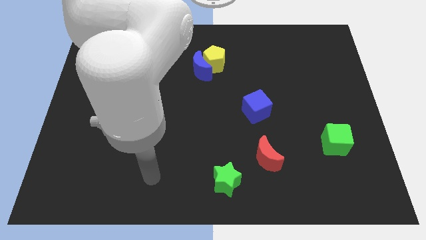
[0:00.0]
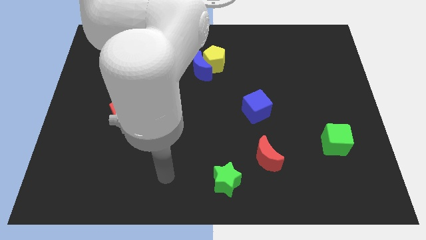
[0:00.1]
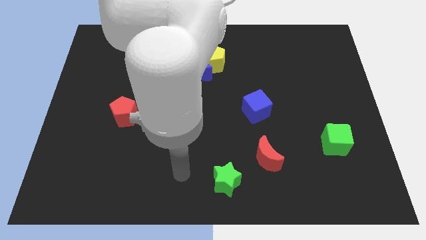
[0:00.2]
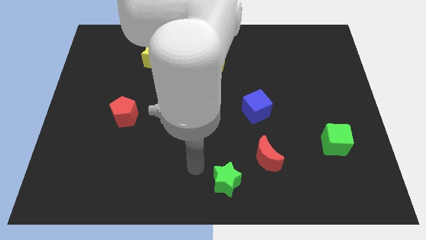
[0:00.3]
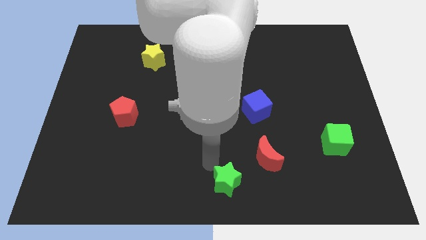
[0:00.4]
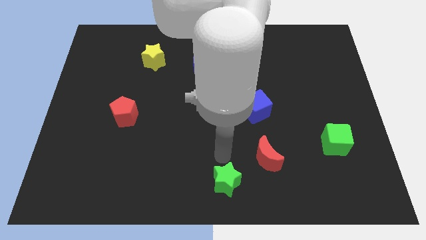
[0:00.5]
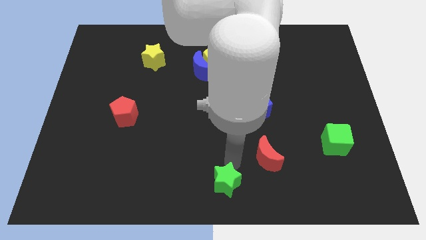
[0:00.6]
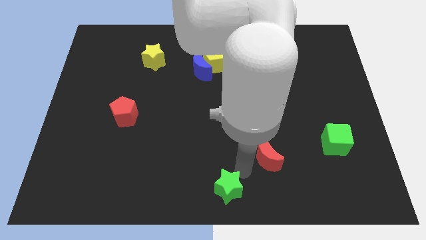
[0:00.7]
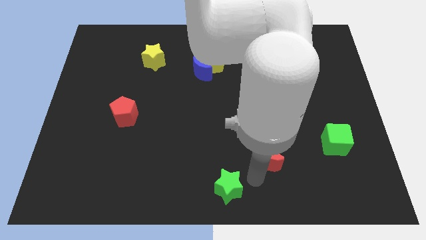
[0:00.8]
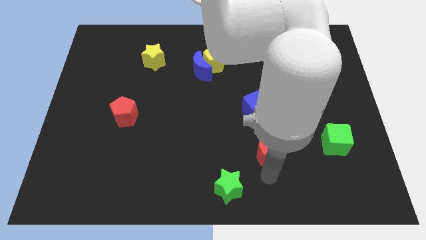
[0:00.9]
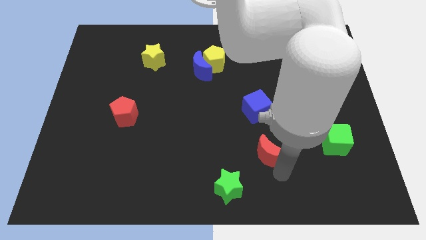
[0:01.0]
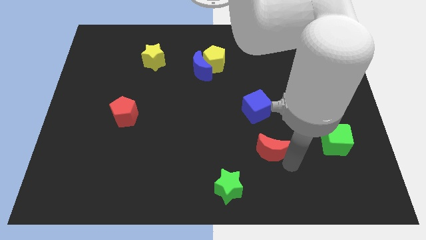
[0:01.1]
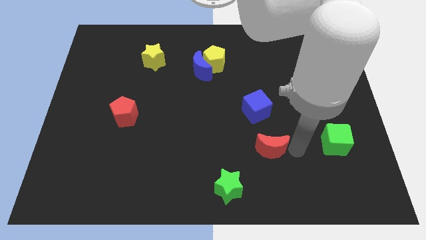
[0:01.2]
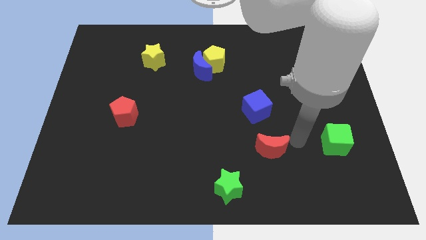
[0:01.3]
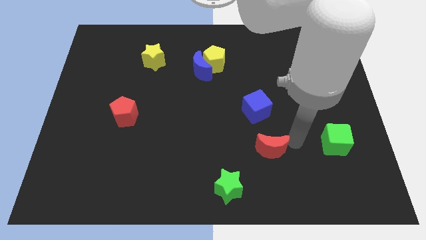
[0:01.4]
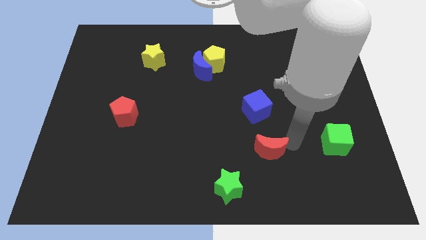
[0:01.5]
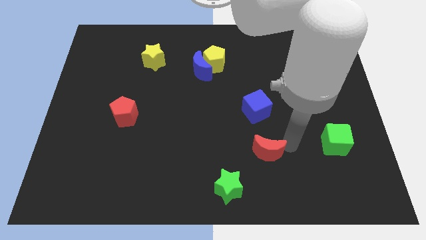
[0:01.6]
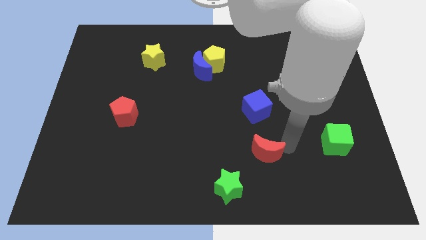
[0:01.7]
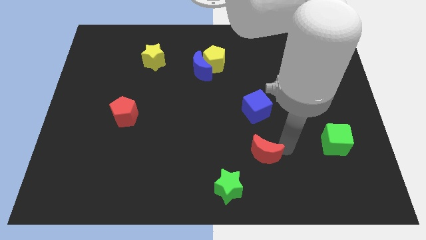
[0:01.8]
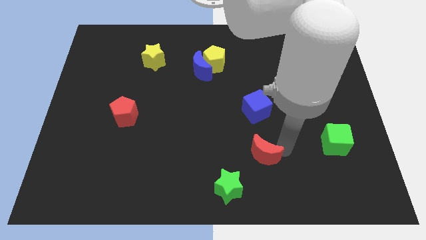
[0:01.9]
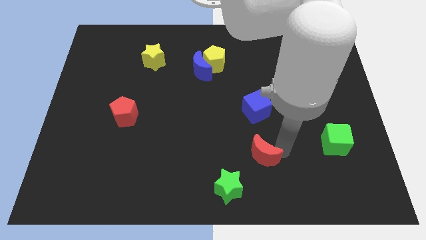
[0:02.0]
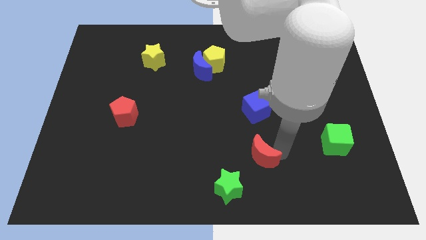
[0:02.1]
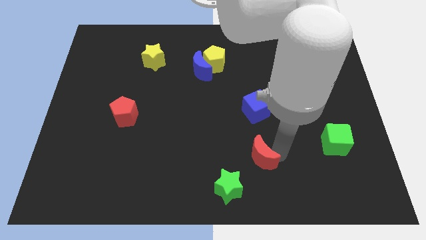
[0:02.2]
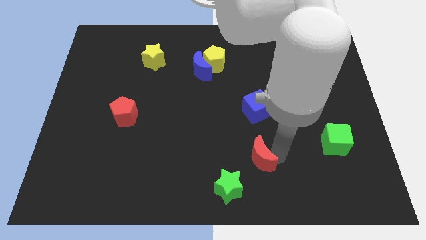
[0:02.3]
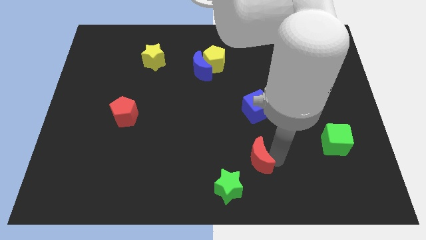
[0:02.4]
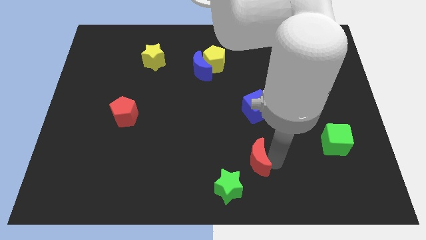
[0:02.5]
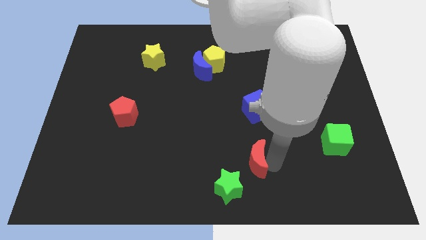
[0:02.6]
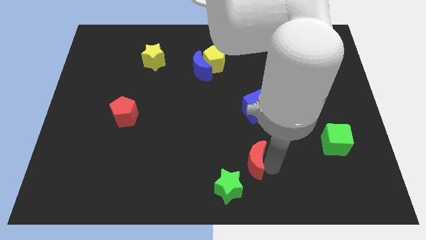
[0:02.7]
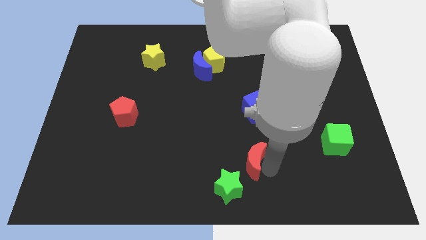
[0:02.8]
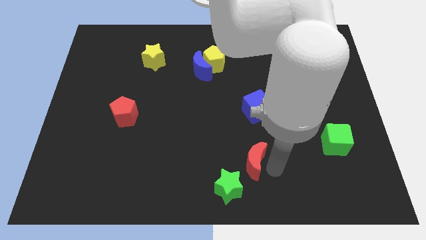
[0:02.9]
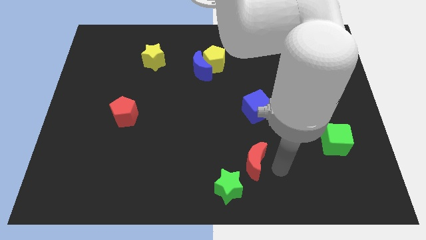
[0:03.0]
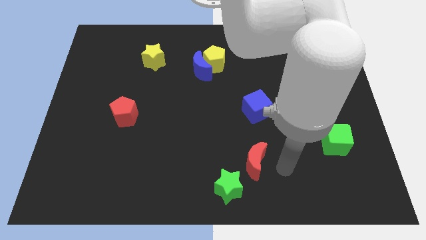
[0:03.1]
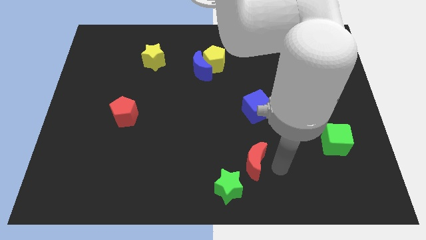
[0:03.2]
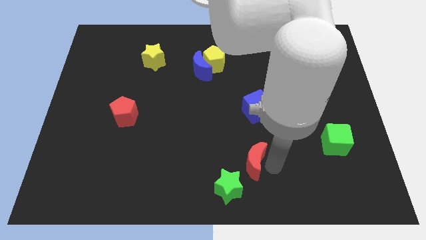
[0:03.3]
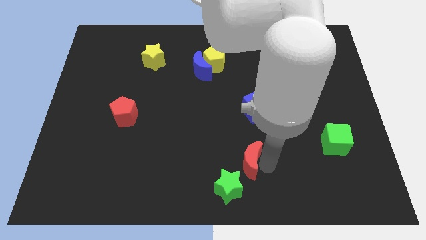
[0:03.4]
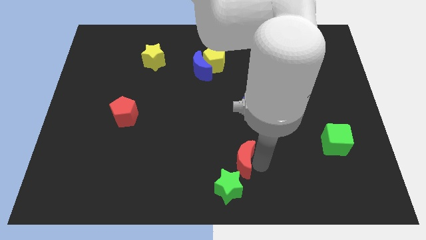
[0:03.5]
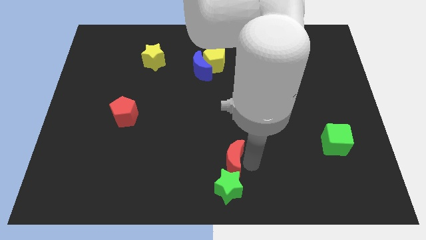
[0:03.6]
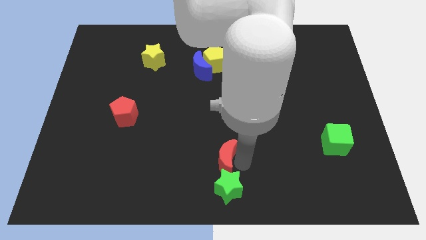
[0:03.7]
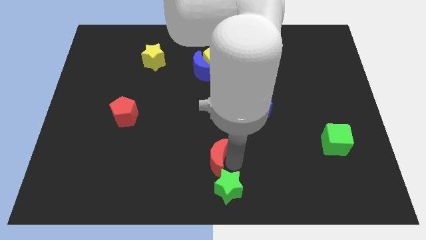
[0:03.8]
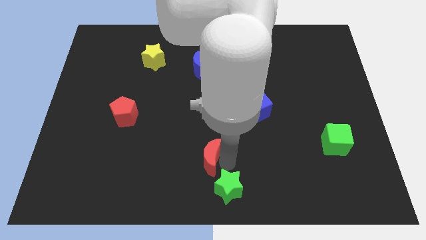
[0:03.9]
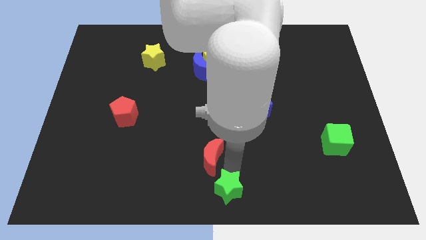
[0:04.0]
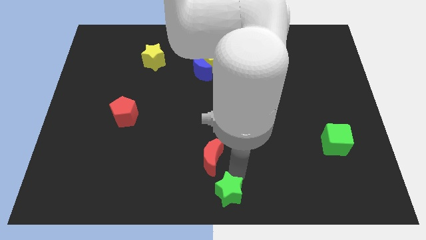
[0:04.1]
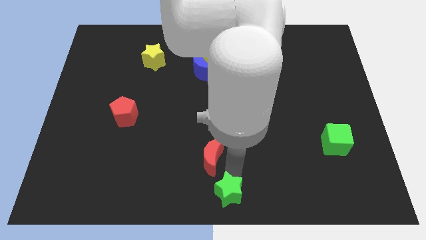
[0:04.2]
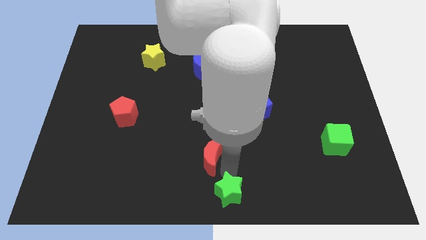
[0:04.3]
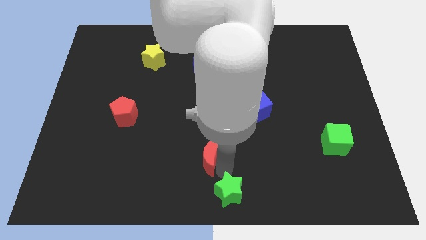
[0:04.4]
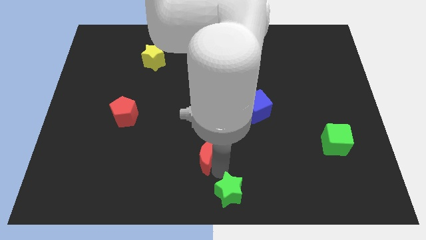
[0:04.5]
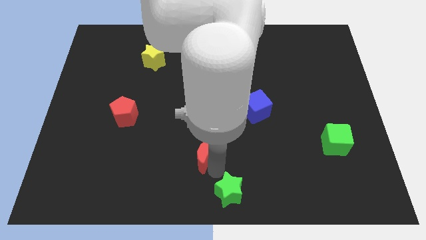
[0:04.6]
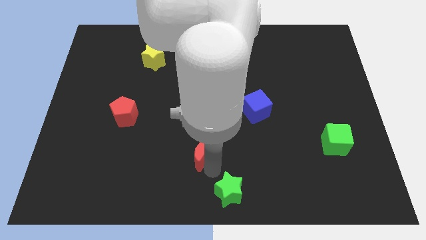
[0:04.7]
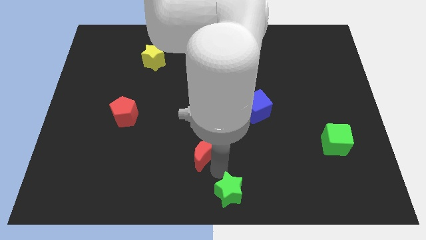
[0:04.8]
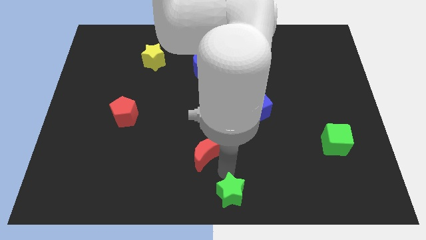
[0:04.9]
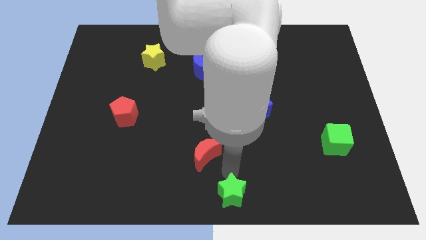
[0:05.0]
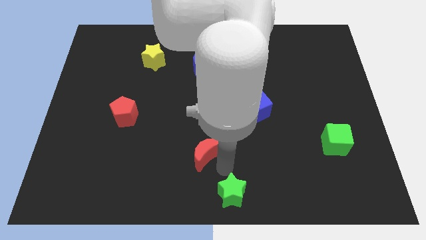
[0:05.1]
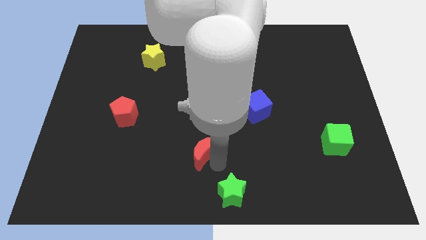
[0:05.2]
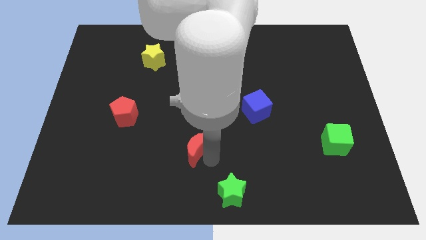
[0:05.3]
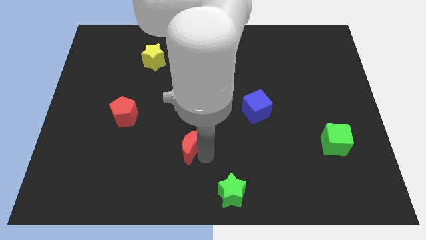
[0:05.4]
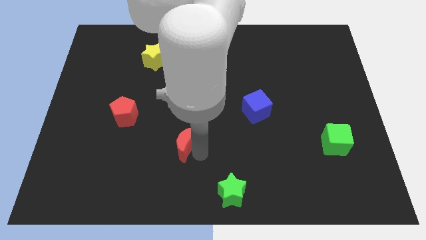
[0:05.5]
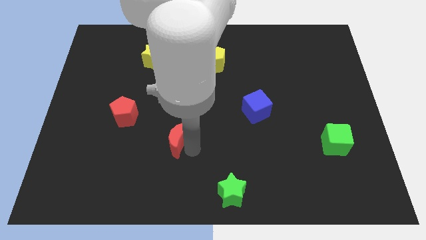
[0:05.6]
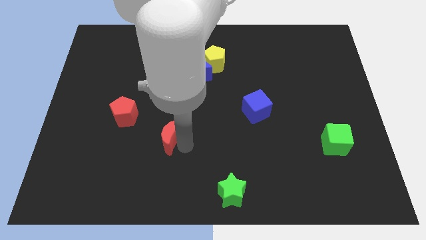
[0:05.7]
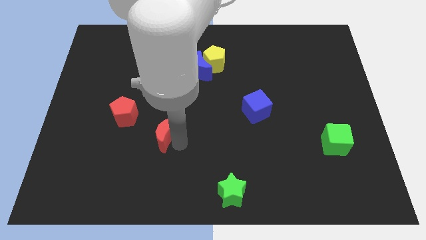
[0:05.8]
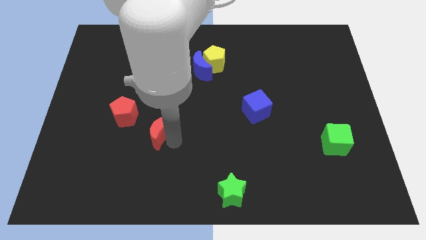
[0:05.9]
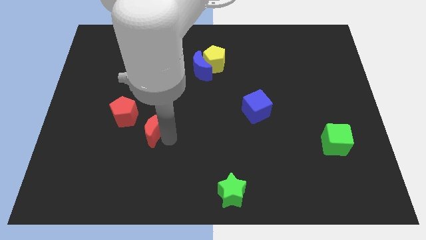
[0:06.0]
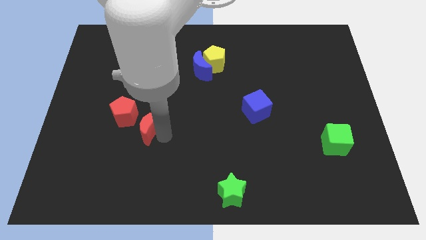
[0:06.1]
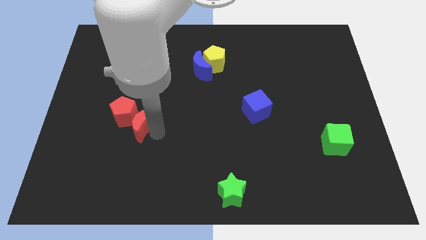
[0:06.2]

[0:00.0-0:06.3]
move the red moon towards the red pentagon

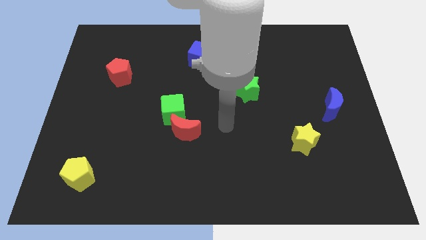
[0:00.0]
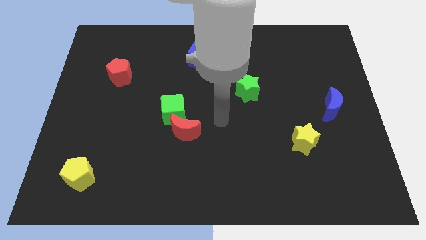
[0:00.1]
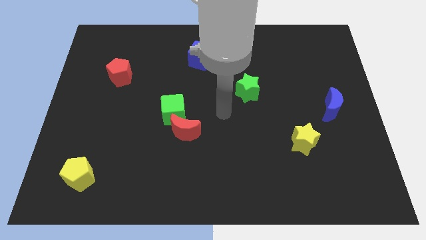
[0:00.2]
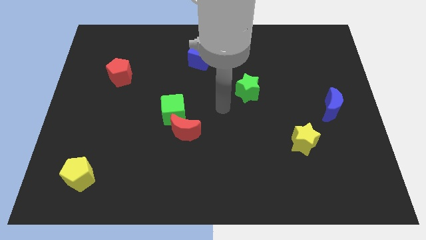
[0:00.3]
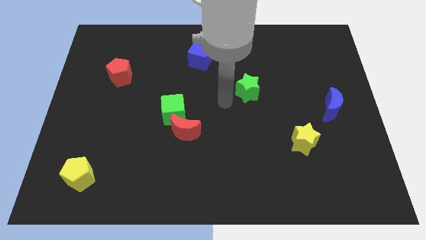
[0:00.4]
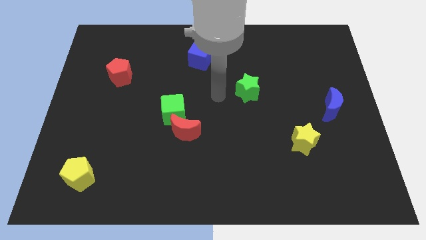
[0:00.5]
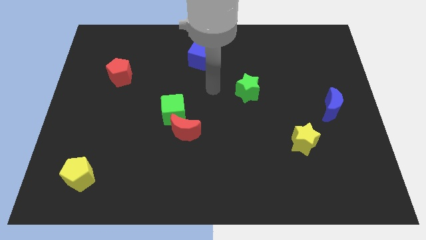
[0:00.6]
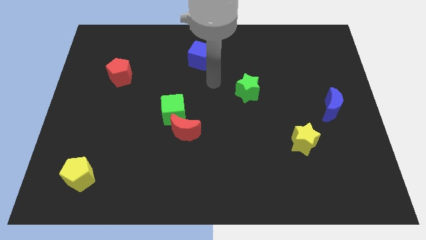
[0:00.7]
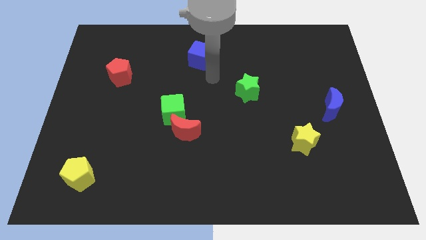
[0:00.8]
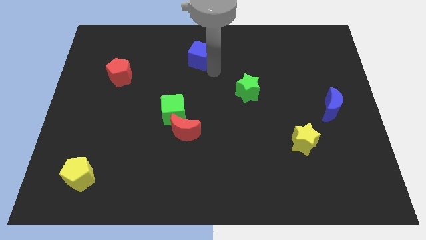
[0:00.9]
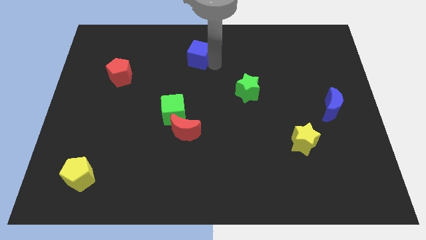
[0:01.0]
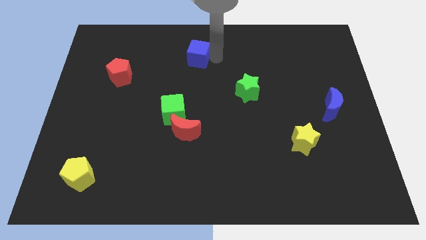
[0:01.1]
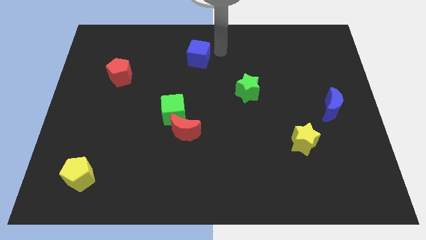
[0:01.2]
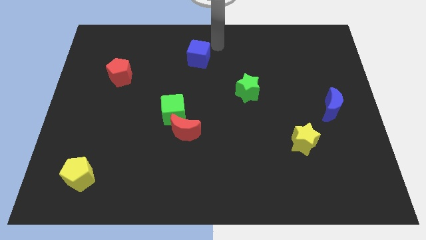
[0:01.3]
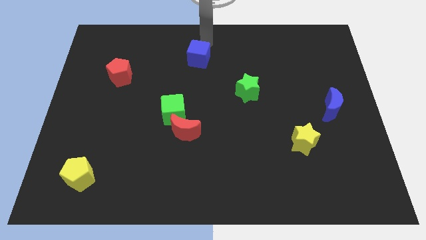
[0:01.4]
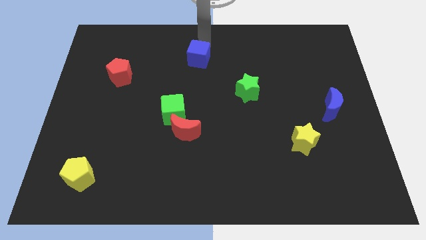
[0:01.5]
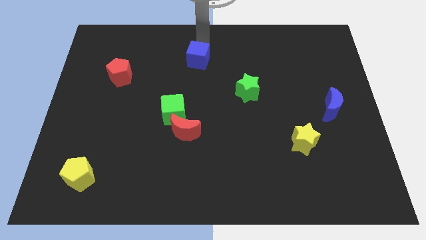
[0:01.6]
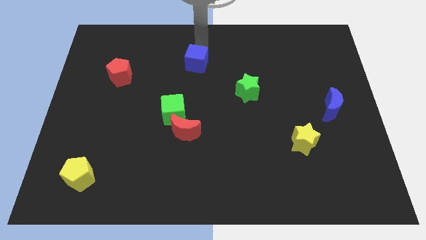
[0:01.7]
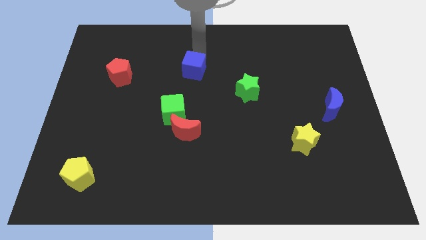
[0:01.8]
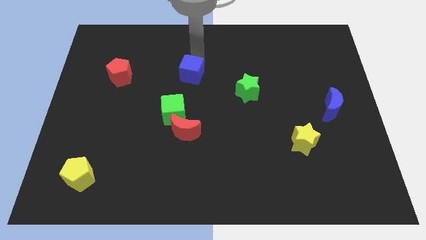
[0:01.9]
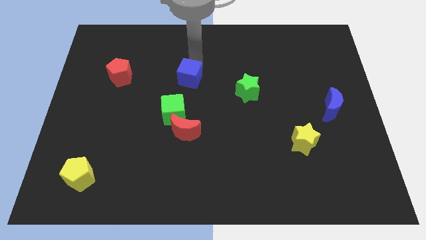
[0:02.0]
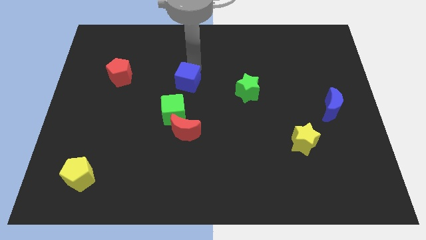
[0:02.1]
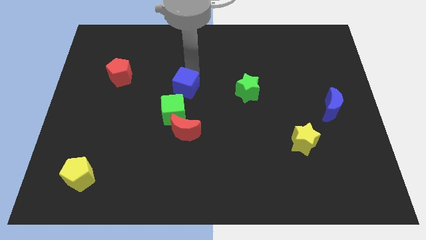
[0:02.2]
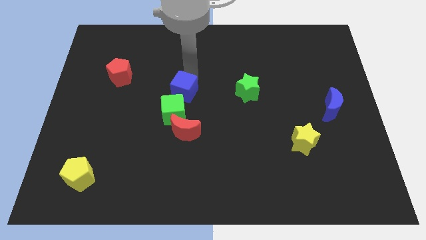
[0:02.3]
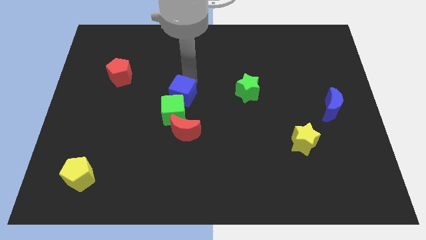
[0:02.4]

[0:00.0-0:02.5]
slide the blue cube towards the green cube
